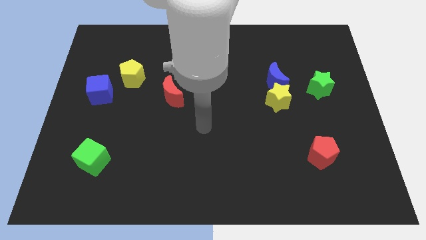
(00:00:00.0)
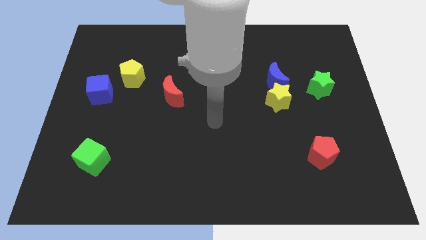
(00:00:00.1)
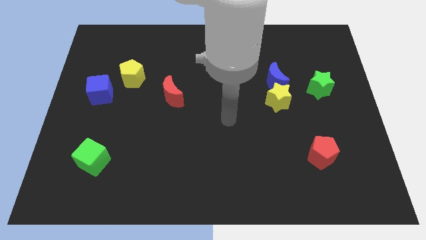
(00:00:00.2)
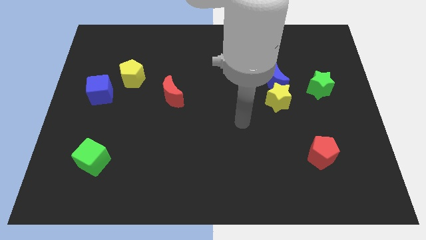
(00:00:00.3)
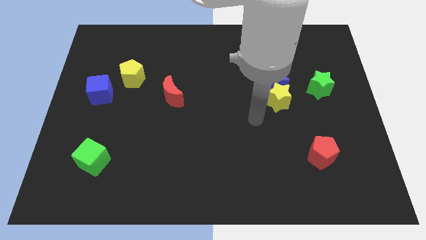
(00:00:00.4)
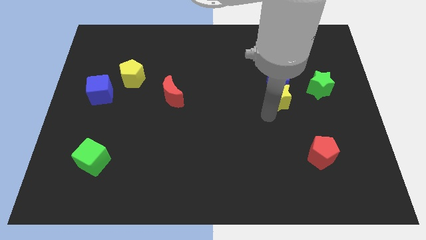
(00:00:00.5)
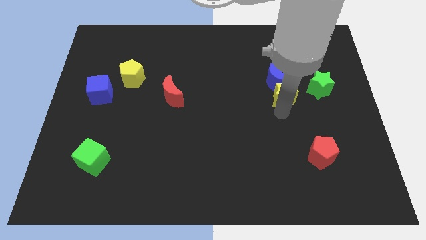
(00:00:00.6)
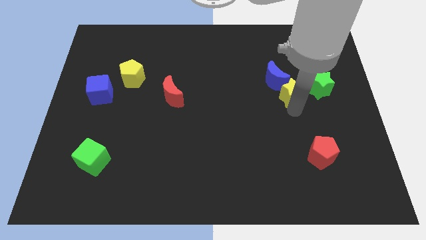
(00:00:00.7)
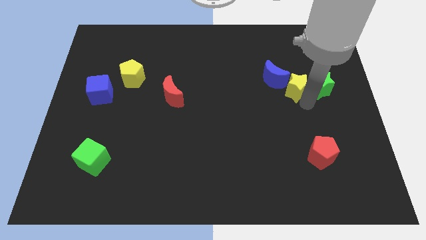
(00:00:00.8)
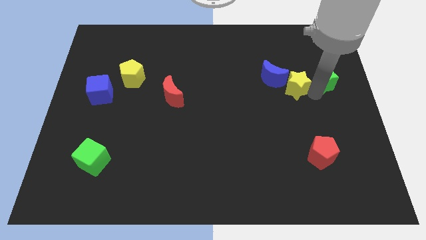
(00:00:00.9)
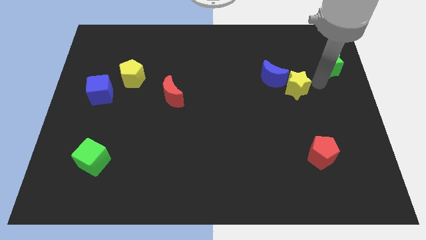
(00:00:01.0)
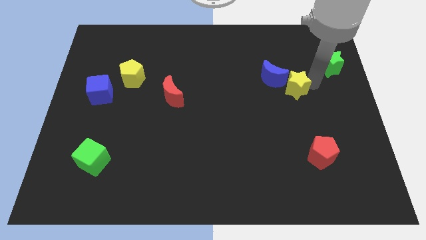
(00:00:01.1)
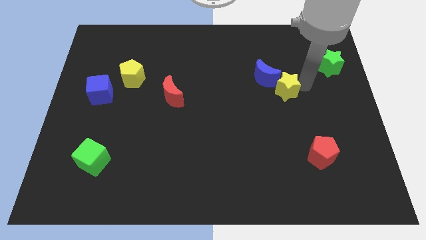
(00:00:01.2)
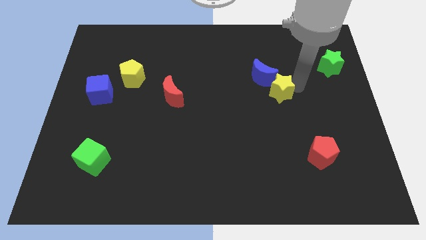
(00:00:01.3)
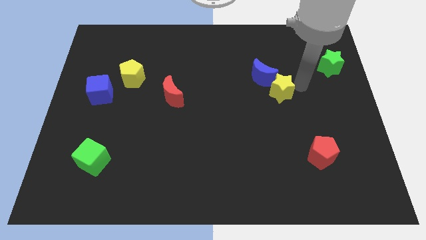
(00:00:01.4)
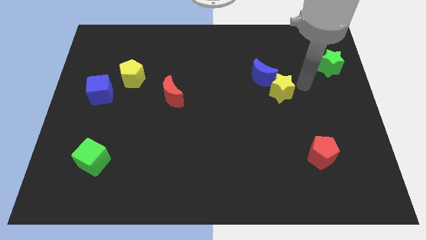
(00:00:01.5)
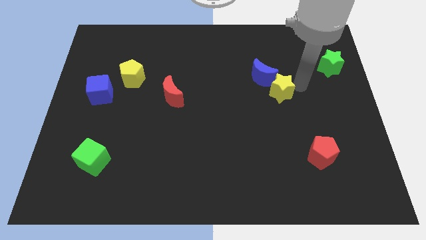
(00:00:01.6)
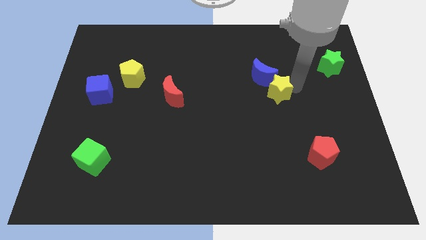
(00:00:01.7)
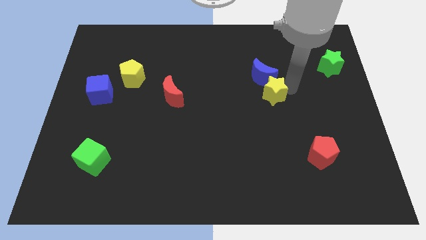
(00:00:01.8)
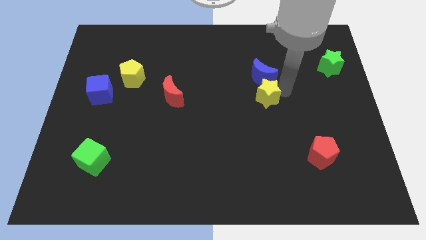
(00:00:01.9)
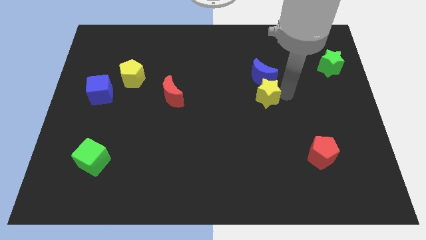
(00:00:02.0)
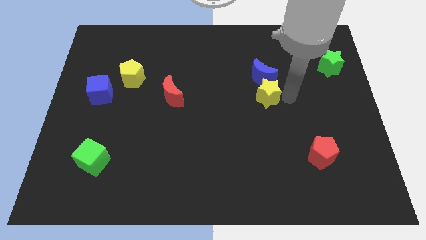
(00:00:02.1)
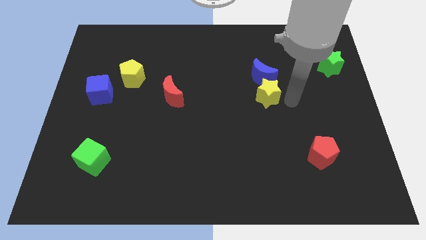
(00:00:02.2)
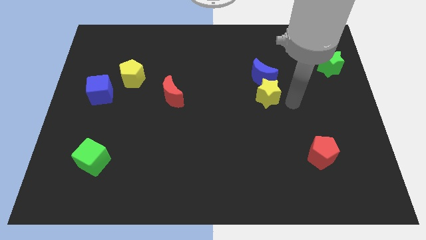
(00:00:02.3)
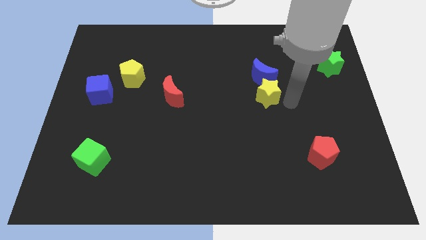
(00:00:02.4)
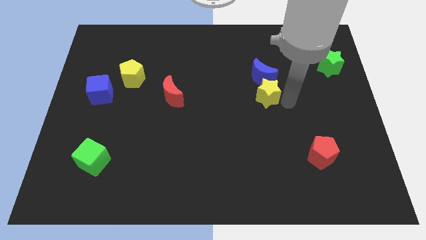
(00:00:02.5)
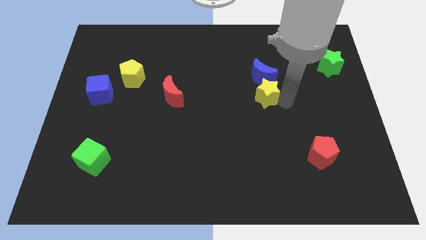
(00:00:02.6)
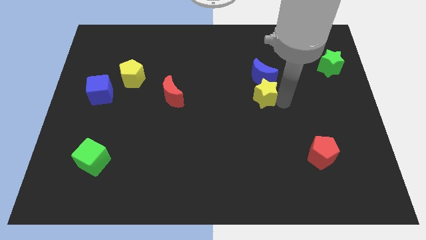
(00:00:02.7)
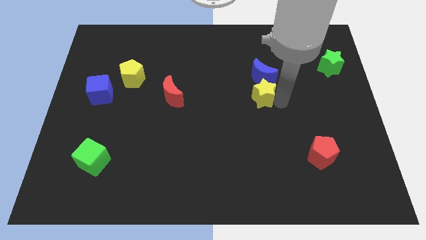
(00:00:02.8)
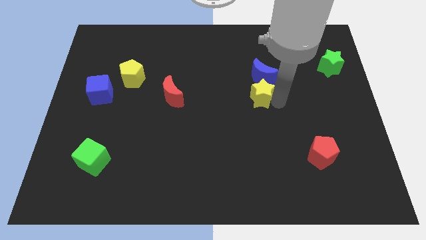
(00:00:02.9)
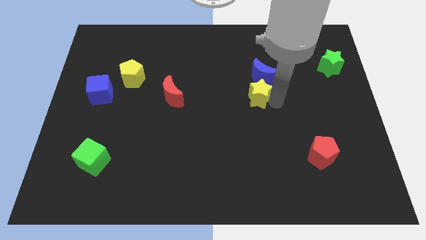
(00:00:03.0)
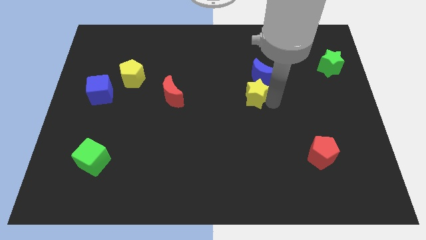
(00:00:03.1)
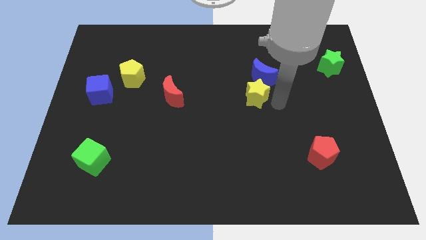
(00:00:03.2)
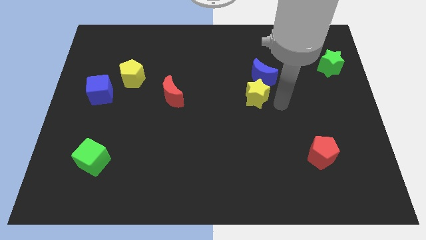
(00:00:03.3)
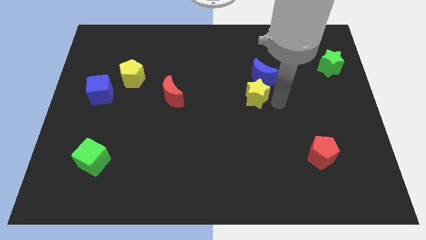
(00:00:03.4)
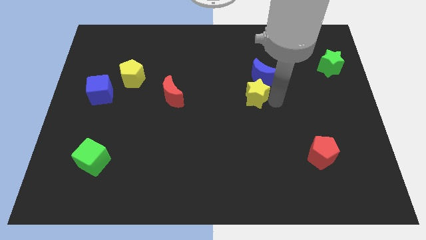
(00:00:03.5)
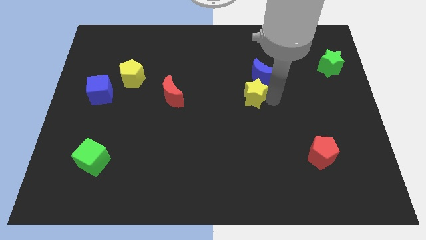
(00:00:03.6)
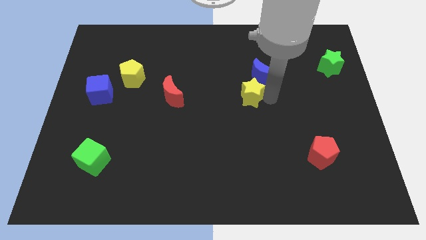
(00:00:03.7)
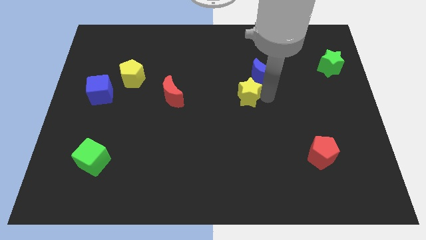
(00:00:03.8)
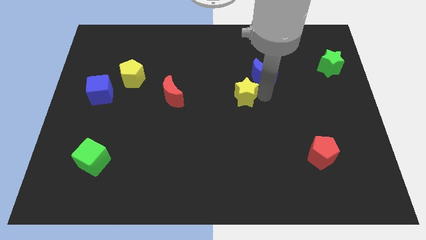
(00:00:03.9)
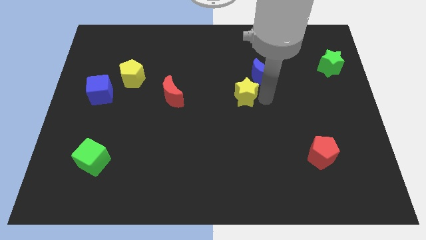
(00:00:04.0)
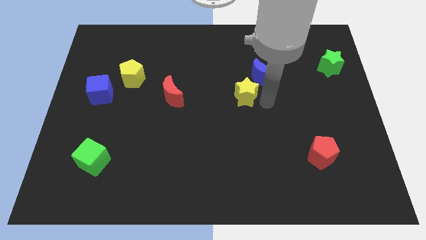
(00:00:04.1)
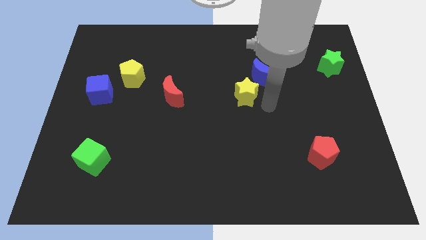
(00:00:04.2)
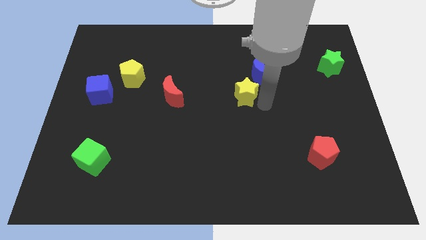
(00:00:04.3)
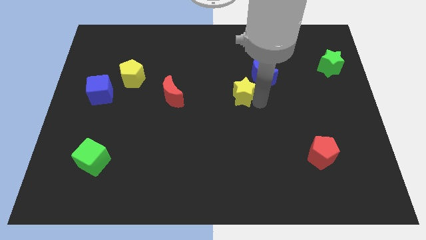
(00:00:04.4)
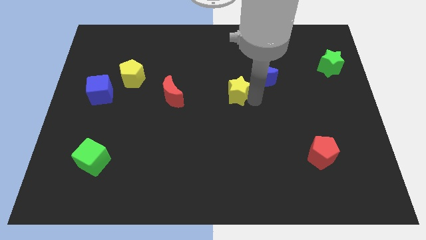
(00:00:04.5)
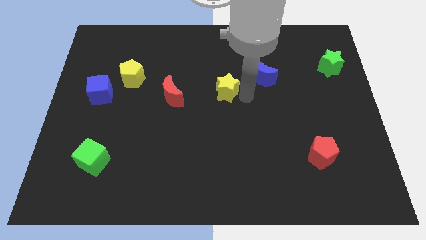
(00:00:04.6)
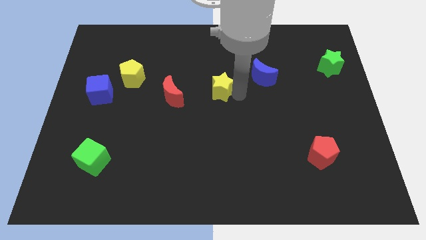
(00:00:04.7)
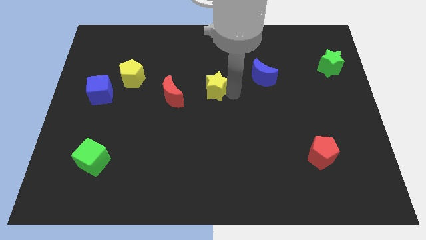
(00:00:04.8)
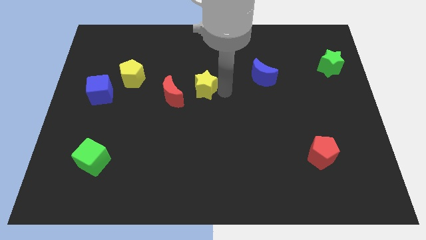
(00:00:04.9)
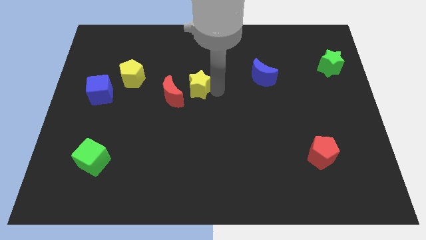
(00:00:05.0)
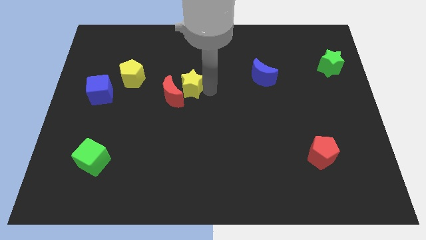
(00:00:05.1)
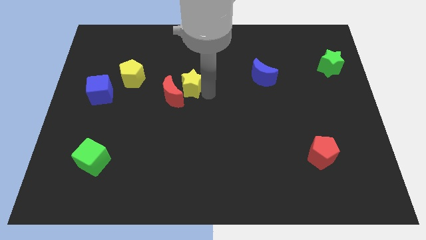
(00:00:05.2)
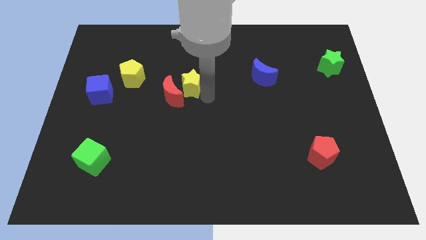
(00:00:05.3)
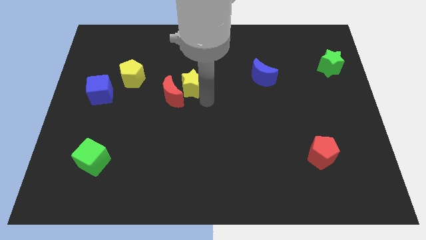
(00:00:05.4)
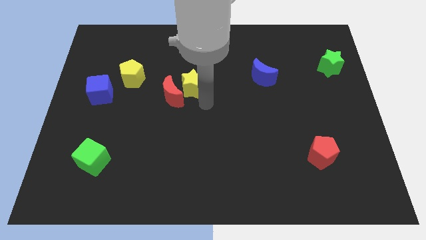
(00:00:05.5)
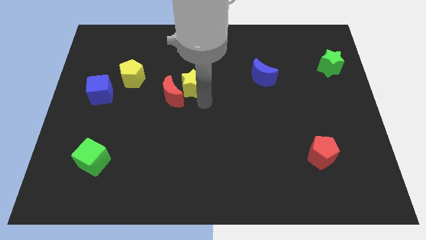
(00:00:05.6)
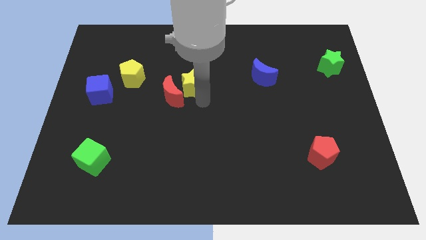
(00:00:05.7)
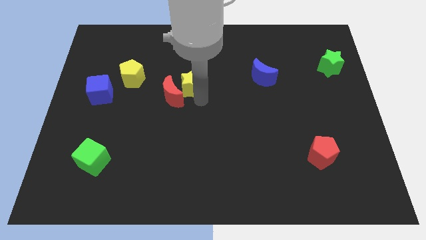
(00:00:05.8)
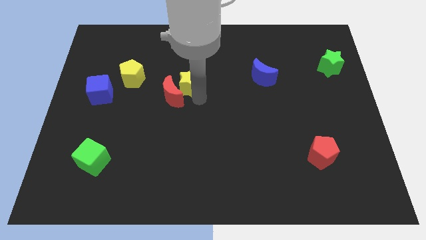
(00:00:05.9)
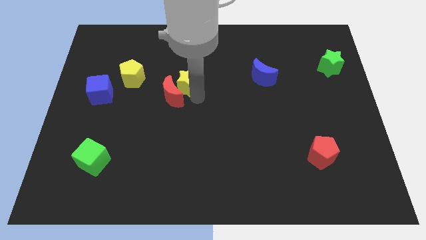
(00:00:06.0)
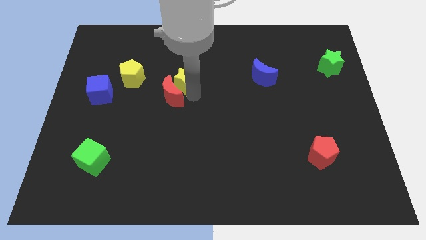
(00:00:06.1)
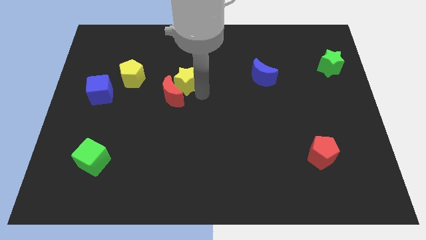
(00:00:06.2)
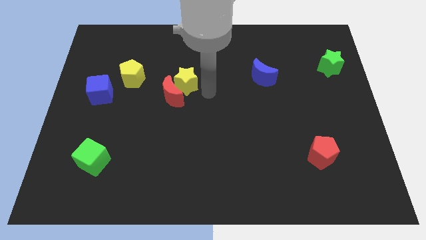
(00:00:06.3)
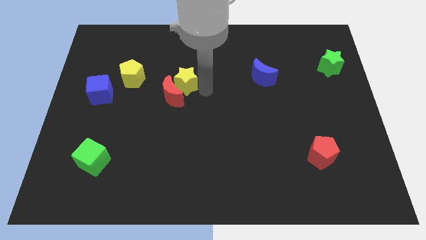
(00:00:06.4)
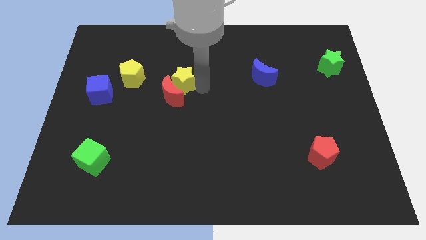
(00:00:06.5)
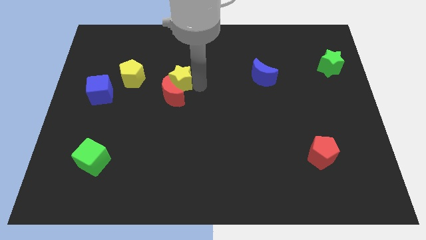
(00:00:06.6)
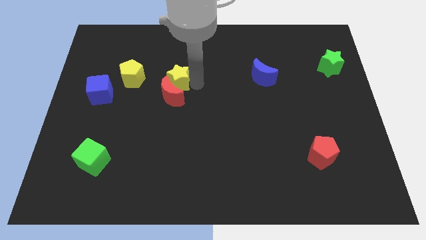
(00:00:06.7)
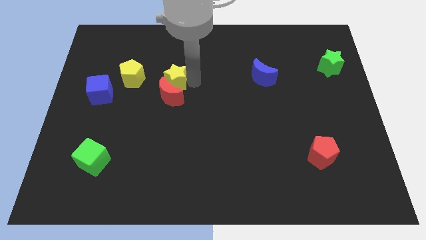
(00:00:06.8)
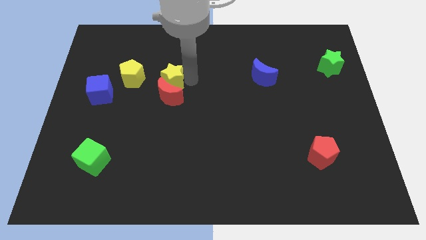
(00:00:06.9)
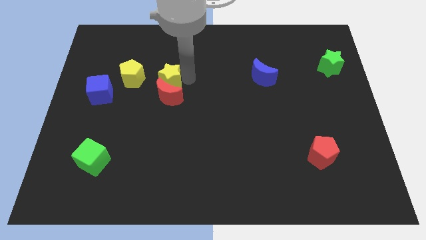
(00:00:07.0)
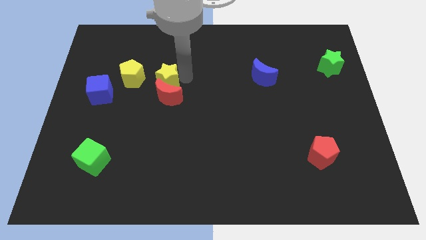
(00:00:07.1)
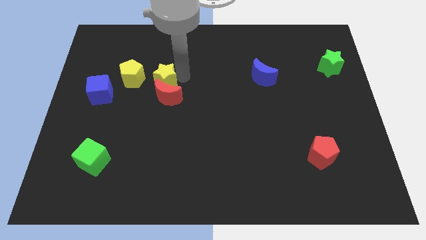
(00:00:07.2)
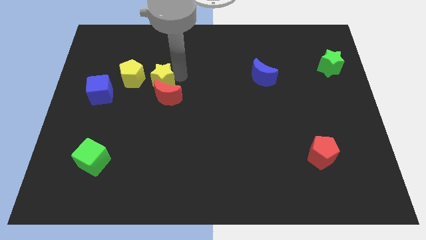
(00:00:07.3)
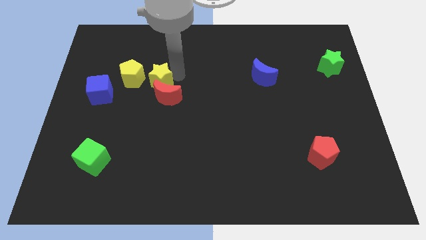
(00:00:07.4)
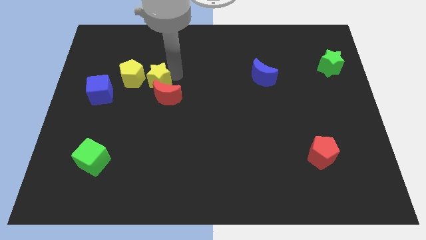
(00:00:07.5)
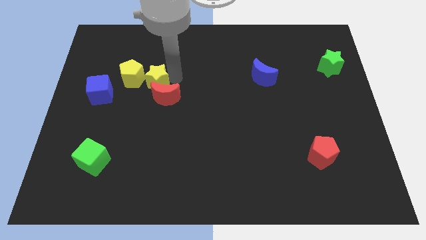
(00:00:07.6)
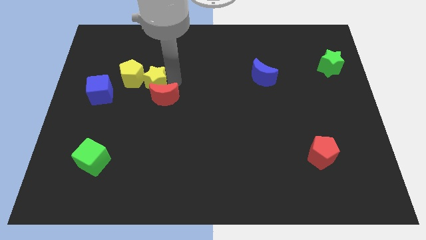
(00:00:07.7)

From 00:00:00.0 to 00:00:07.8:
move the yellow star towards the yellow pentagon
